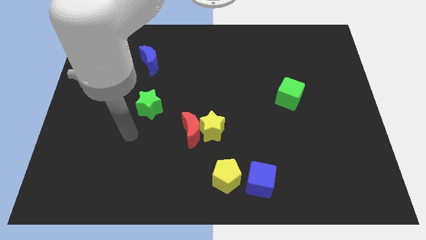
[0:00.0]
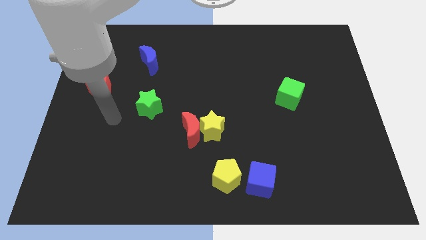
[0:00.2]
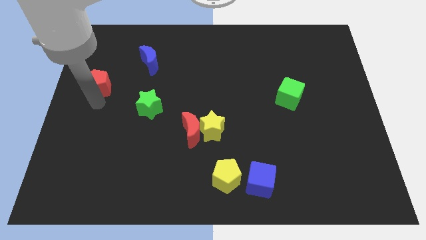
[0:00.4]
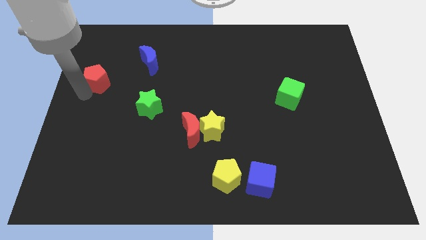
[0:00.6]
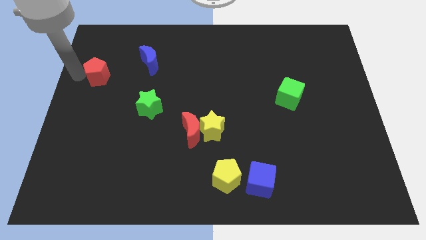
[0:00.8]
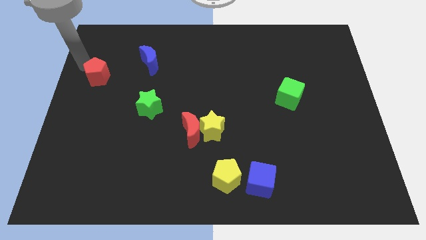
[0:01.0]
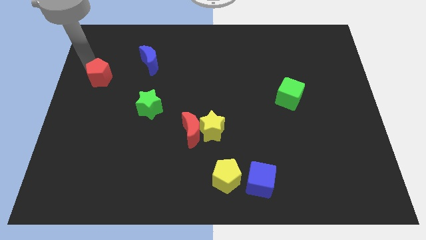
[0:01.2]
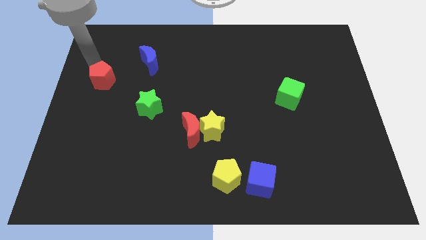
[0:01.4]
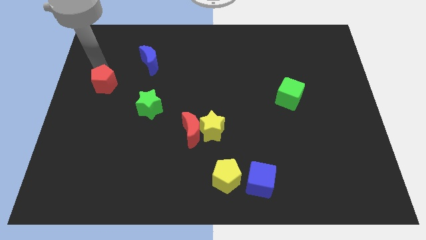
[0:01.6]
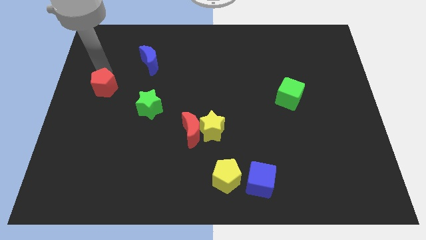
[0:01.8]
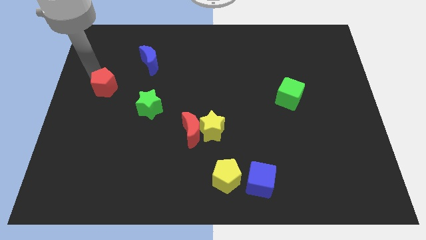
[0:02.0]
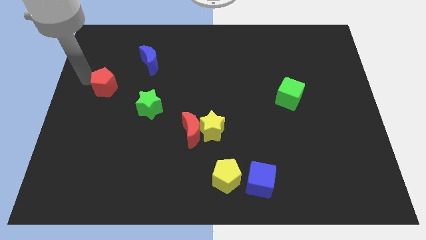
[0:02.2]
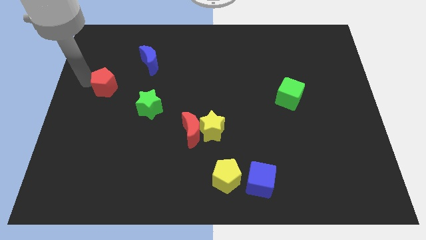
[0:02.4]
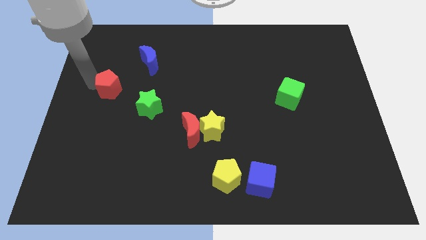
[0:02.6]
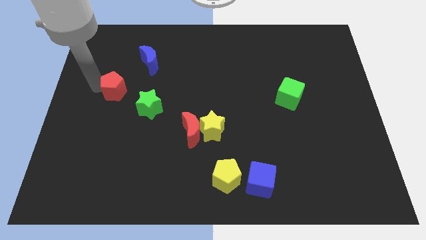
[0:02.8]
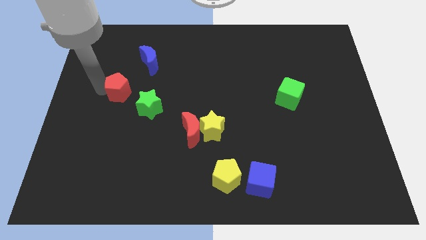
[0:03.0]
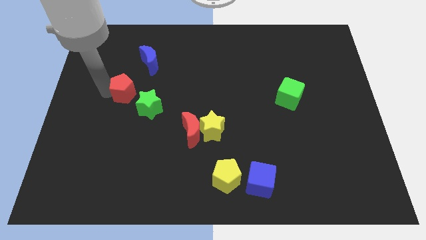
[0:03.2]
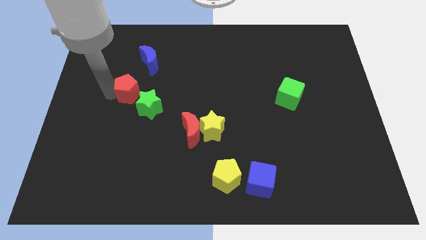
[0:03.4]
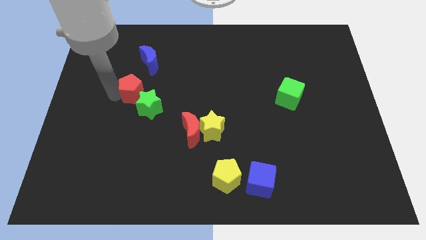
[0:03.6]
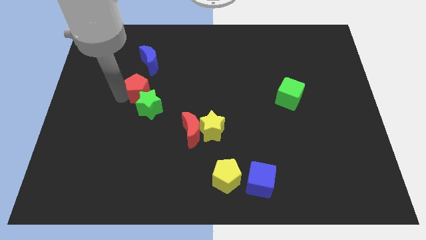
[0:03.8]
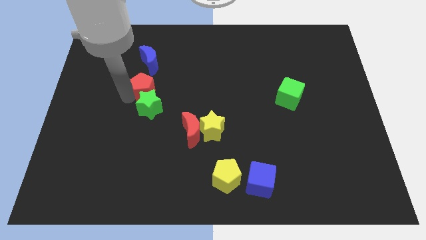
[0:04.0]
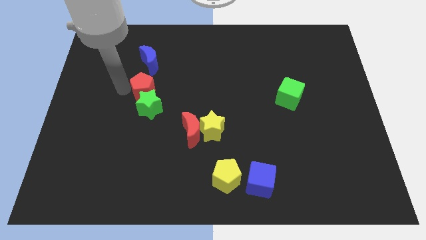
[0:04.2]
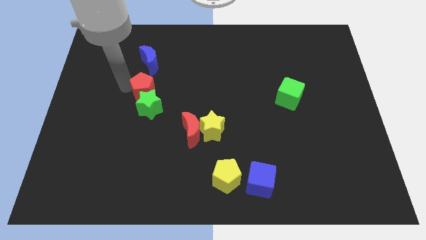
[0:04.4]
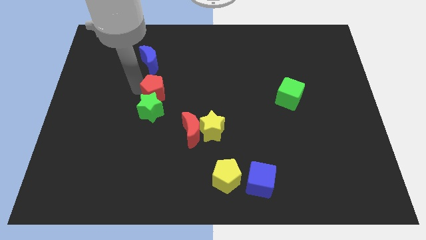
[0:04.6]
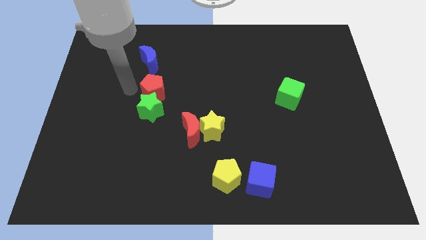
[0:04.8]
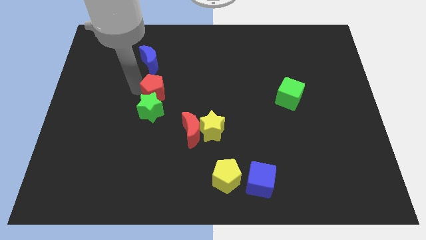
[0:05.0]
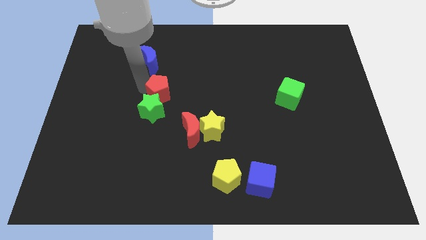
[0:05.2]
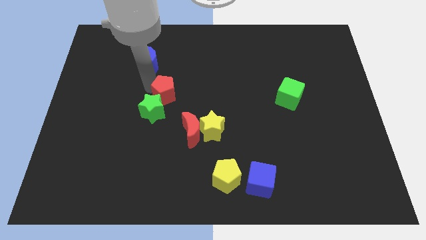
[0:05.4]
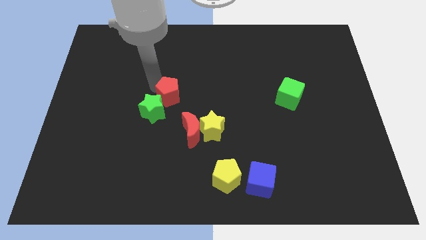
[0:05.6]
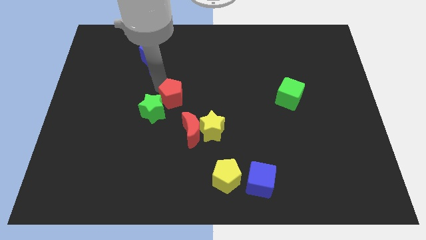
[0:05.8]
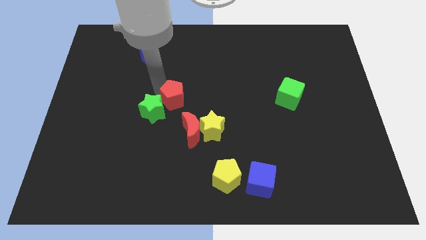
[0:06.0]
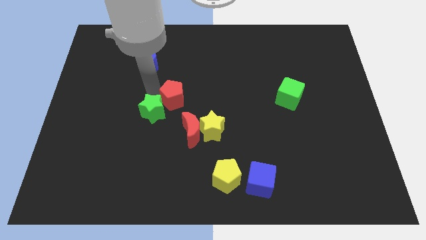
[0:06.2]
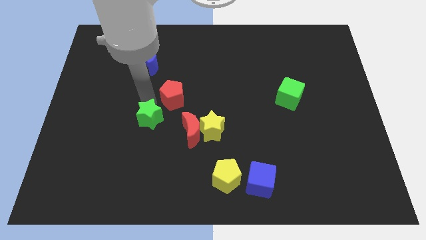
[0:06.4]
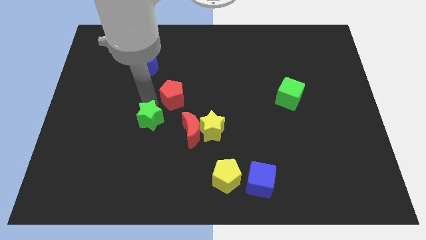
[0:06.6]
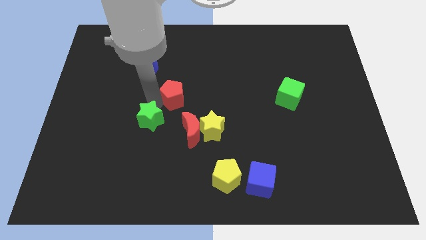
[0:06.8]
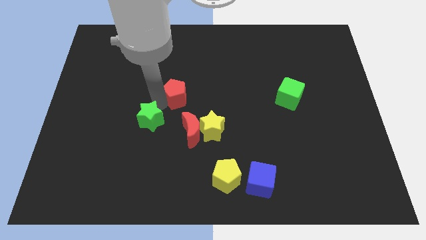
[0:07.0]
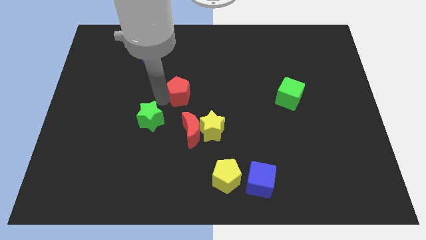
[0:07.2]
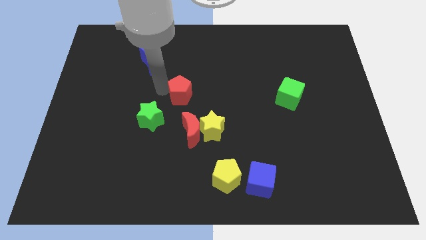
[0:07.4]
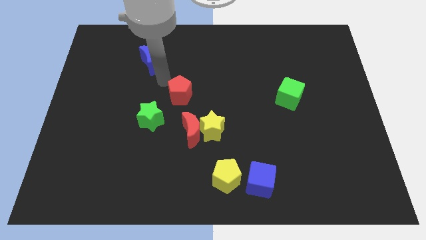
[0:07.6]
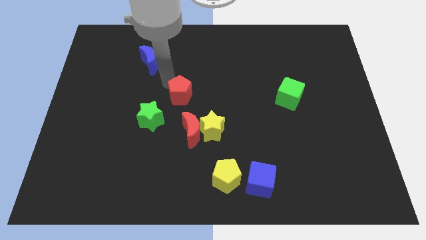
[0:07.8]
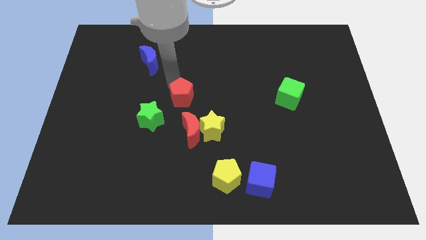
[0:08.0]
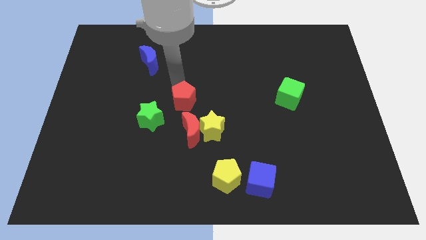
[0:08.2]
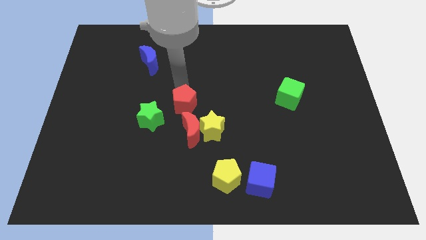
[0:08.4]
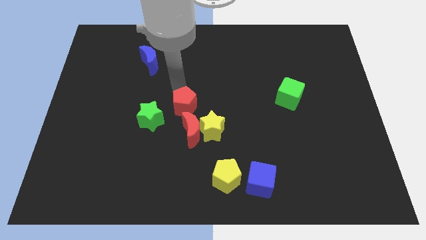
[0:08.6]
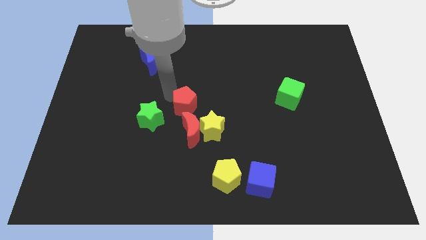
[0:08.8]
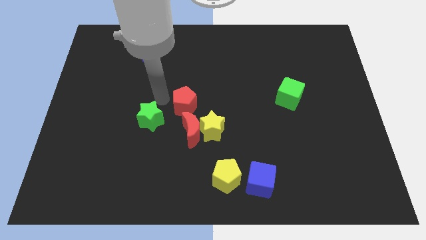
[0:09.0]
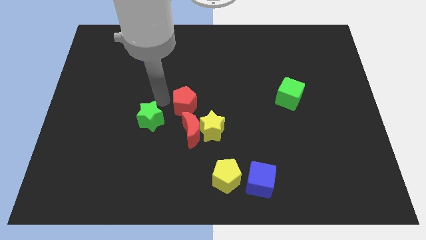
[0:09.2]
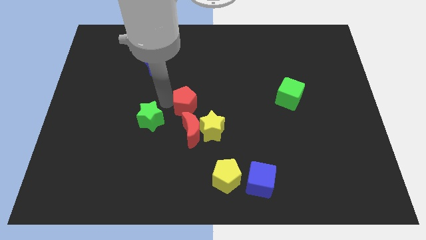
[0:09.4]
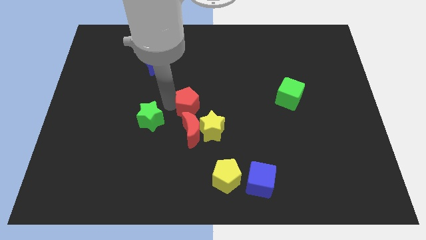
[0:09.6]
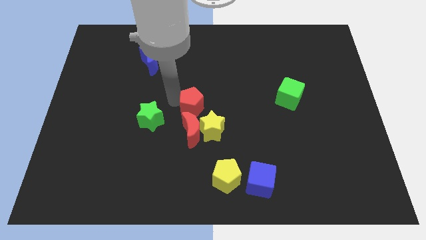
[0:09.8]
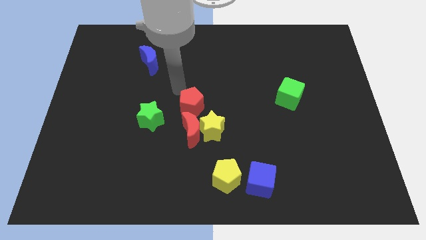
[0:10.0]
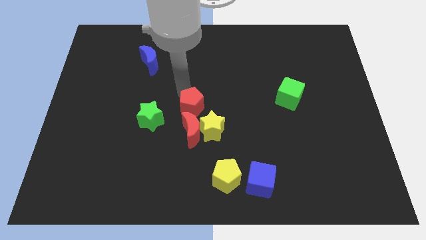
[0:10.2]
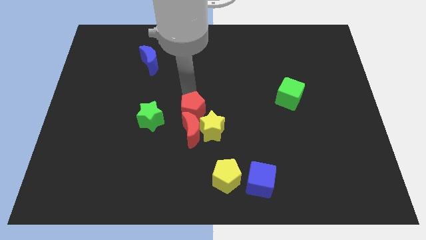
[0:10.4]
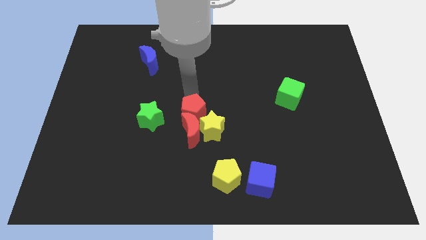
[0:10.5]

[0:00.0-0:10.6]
push the red pentagon to the yellow star

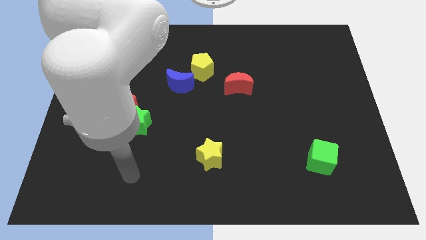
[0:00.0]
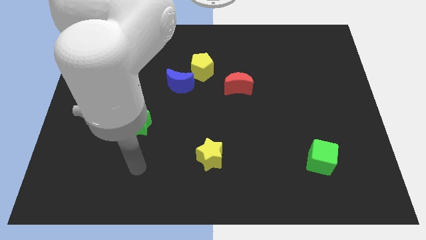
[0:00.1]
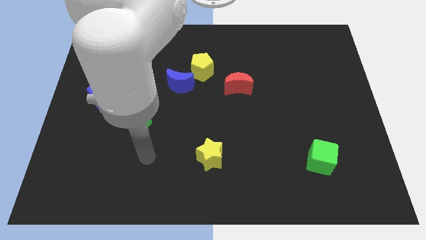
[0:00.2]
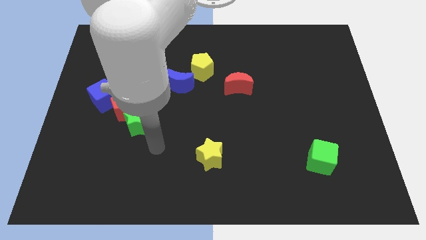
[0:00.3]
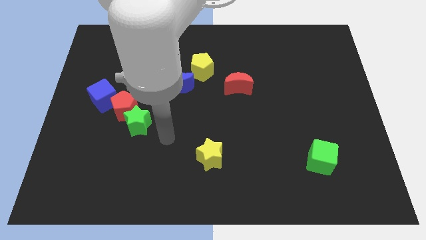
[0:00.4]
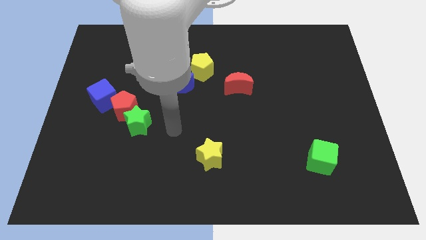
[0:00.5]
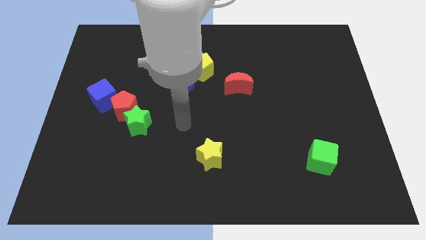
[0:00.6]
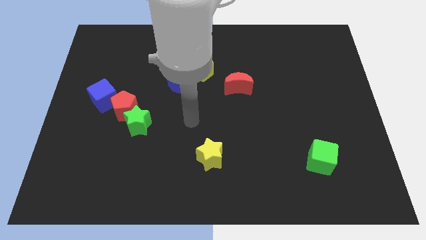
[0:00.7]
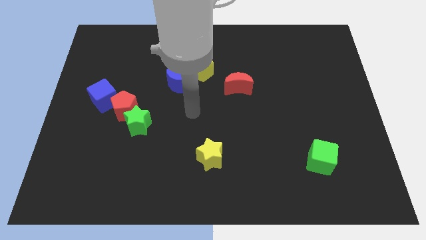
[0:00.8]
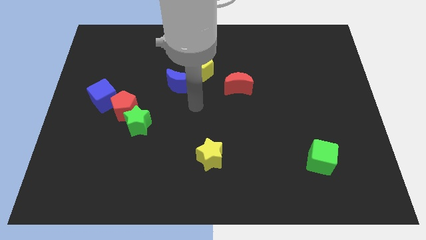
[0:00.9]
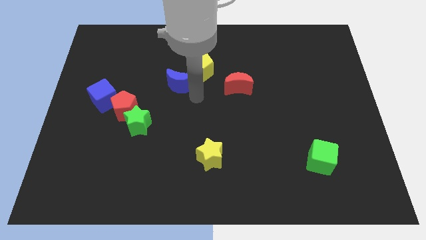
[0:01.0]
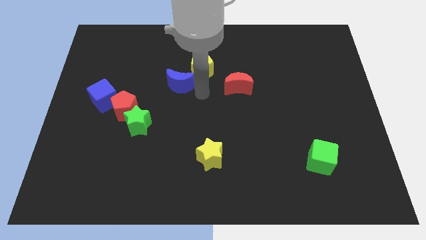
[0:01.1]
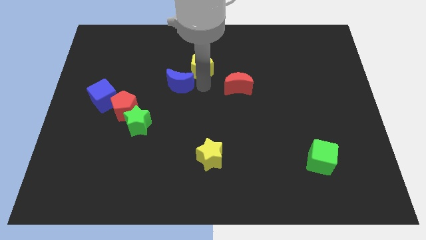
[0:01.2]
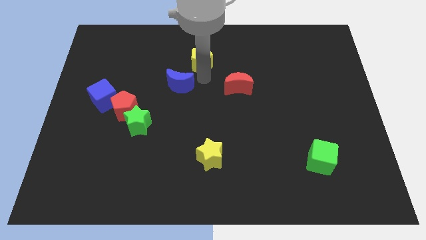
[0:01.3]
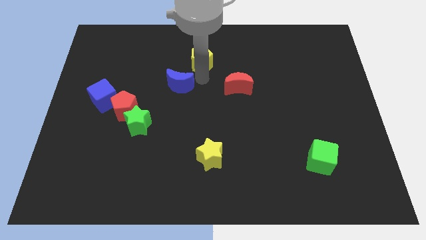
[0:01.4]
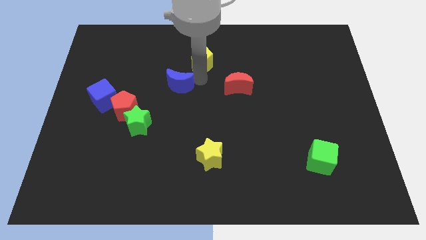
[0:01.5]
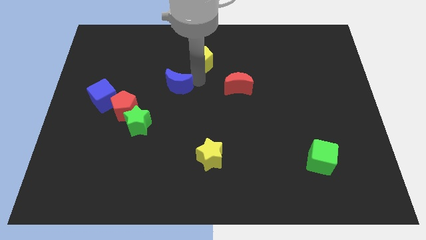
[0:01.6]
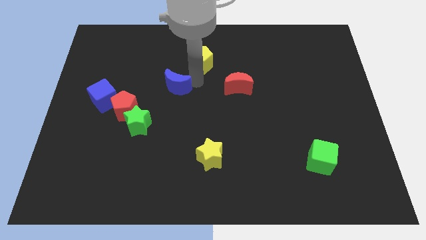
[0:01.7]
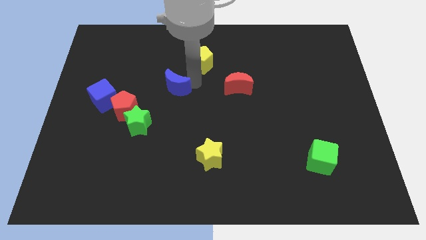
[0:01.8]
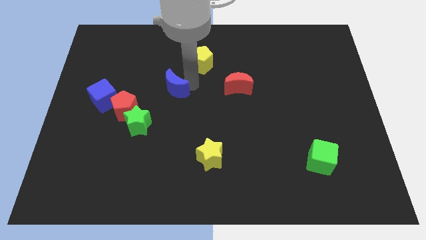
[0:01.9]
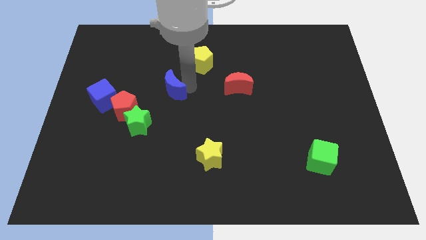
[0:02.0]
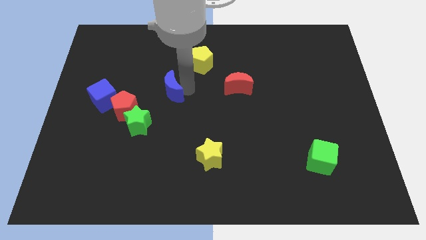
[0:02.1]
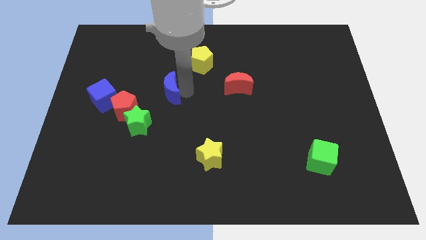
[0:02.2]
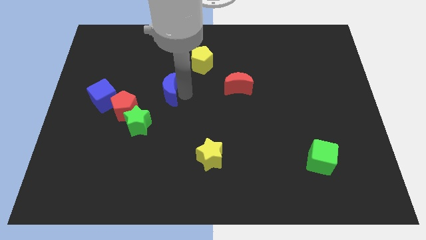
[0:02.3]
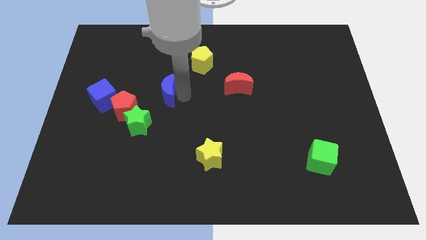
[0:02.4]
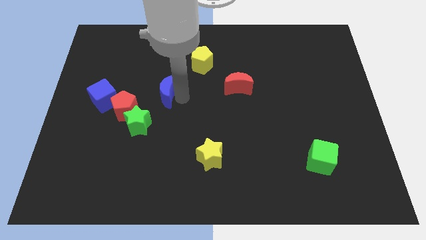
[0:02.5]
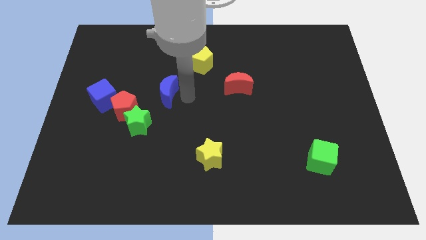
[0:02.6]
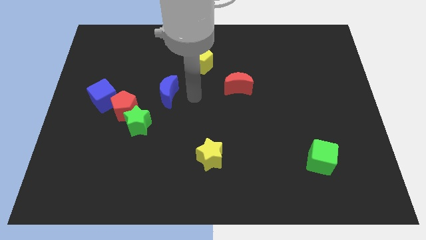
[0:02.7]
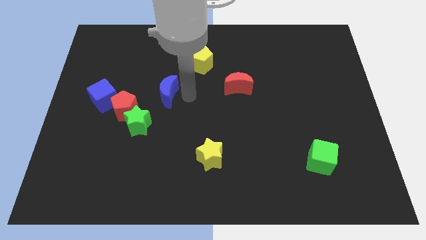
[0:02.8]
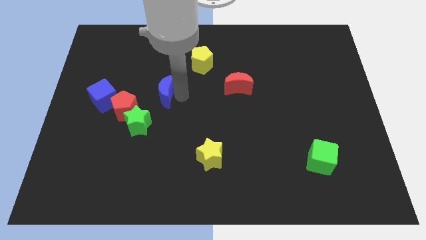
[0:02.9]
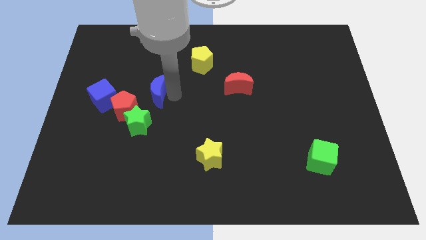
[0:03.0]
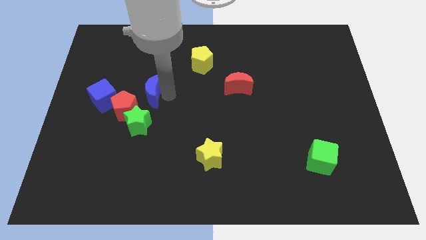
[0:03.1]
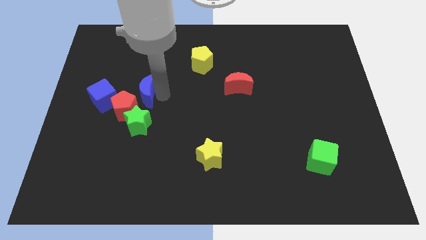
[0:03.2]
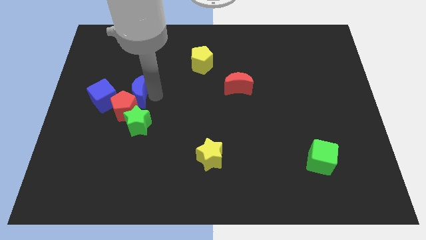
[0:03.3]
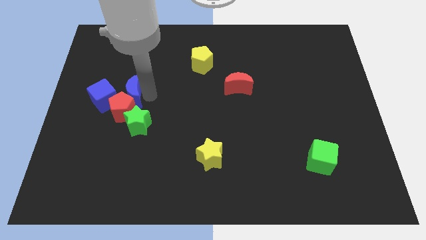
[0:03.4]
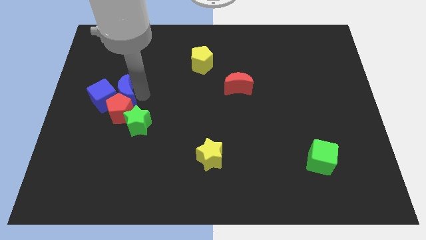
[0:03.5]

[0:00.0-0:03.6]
move the blue moon next to the blue cube
